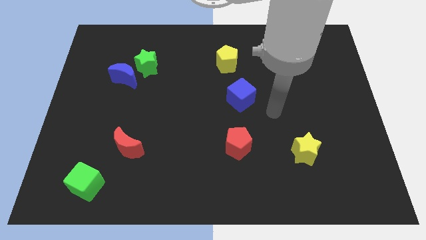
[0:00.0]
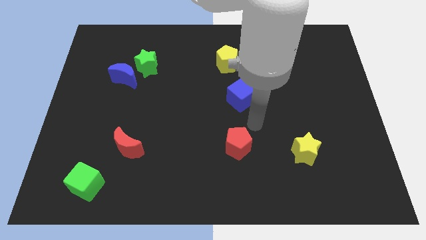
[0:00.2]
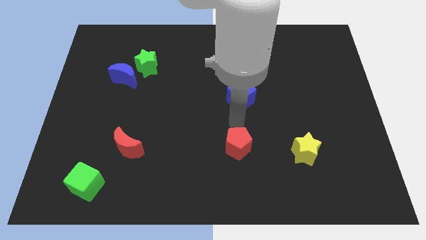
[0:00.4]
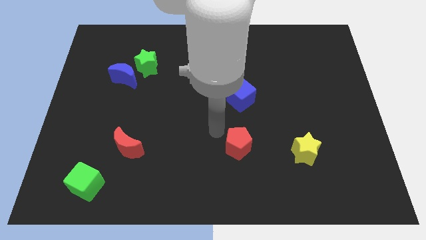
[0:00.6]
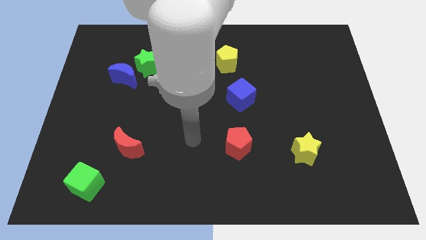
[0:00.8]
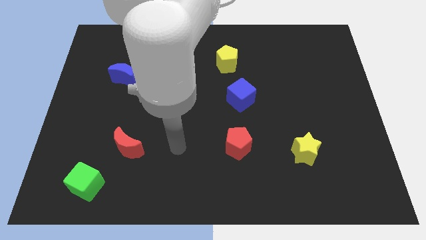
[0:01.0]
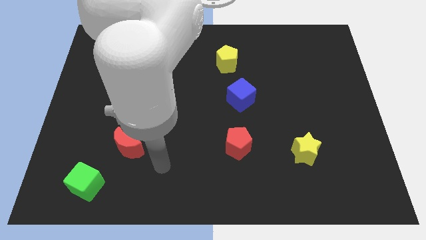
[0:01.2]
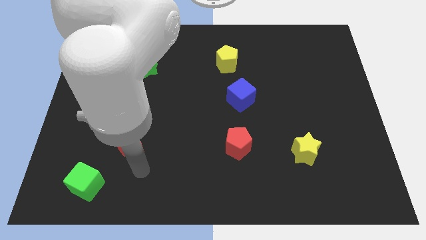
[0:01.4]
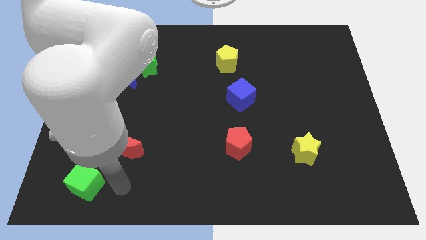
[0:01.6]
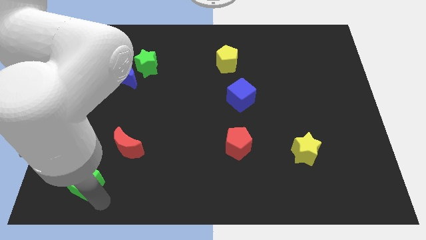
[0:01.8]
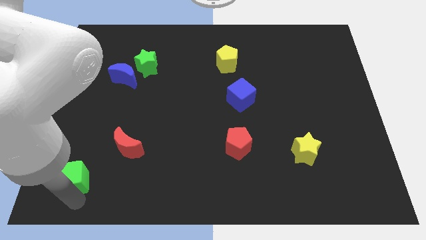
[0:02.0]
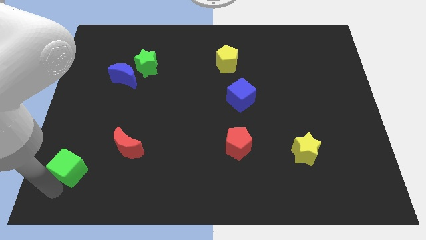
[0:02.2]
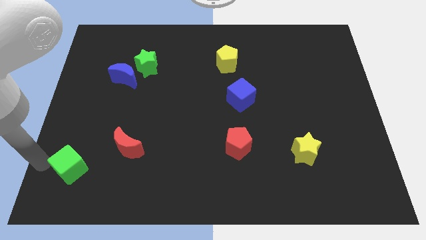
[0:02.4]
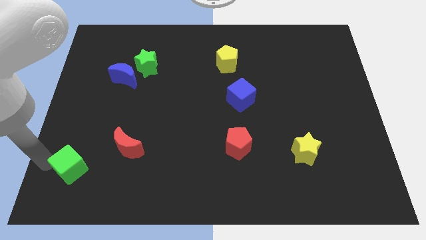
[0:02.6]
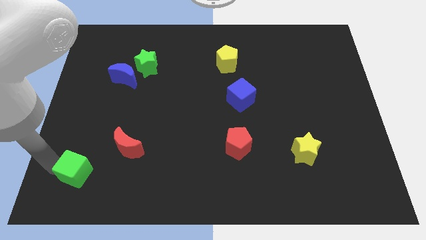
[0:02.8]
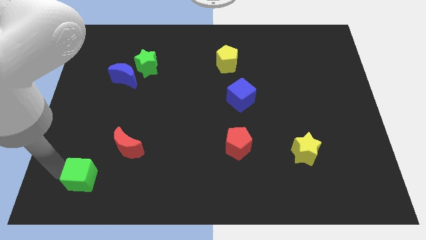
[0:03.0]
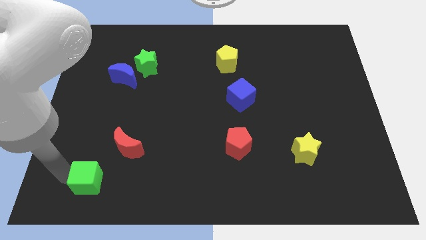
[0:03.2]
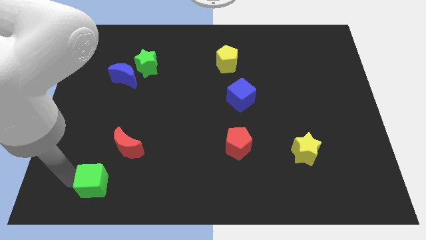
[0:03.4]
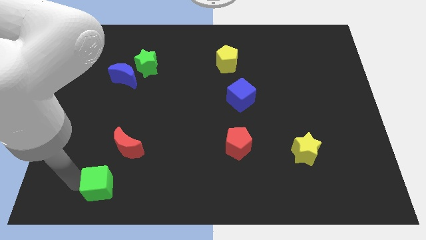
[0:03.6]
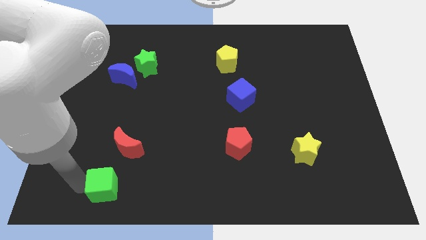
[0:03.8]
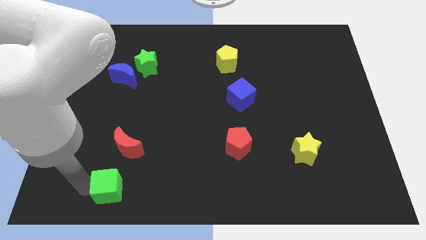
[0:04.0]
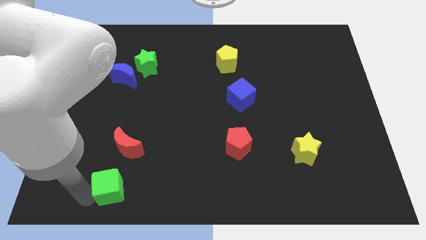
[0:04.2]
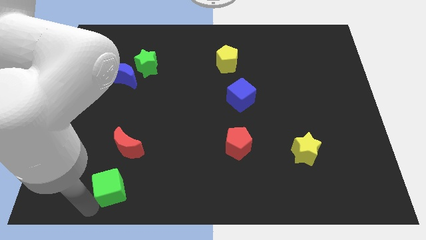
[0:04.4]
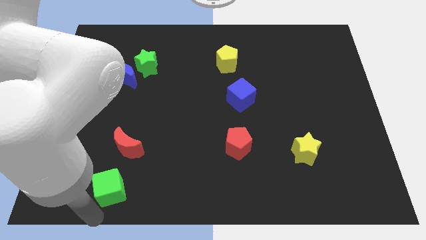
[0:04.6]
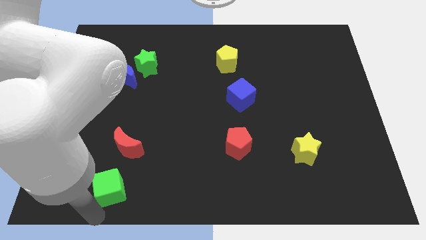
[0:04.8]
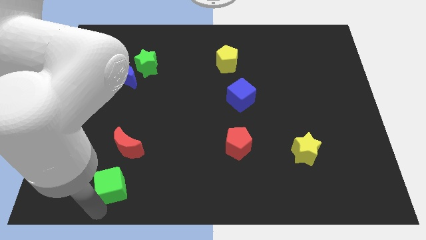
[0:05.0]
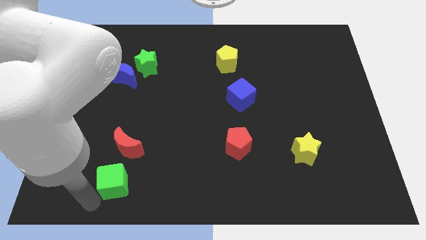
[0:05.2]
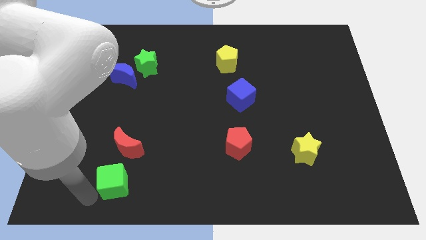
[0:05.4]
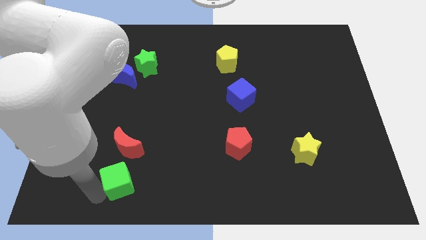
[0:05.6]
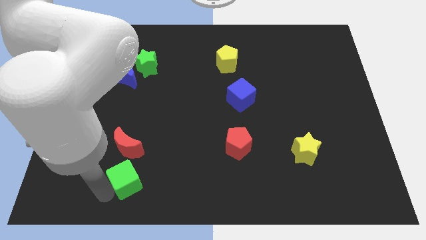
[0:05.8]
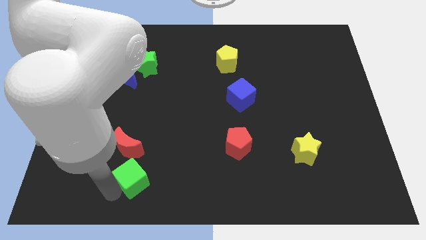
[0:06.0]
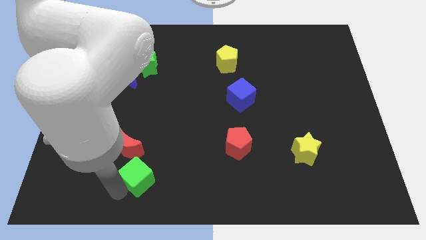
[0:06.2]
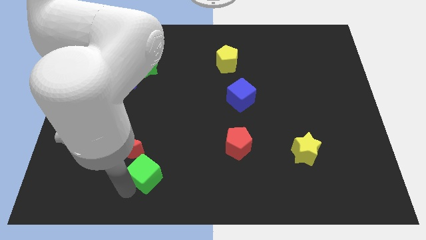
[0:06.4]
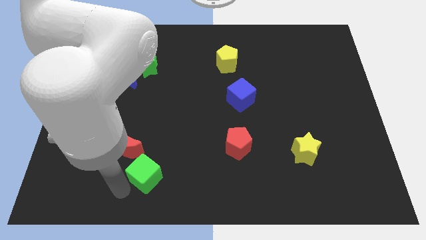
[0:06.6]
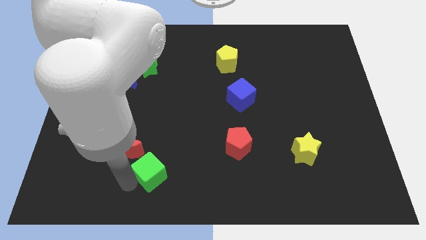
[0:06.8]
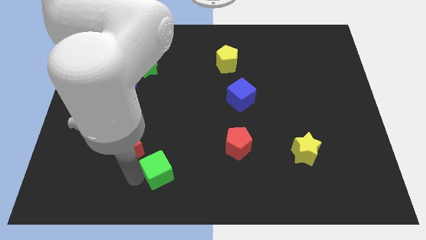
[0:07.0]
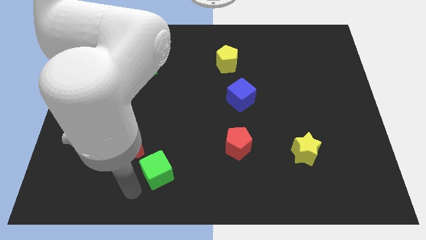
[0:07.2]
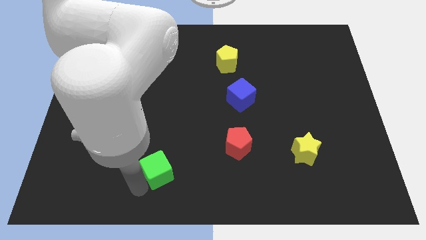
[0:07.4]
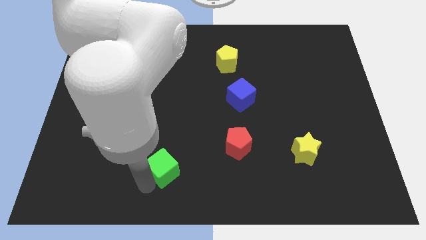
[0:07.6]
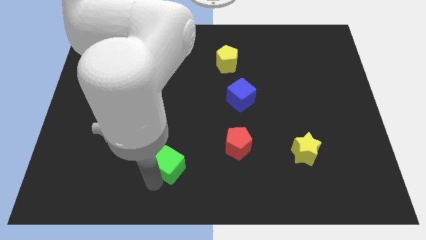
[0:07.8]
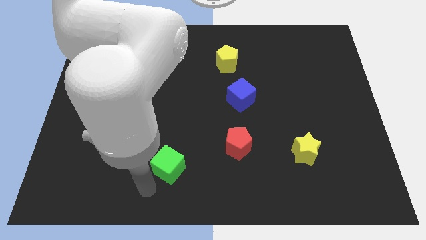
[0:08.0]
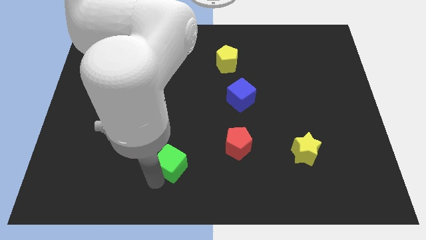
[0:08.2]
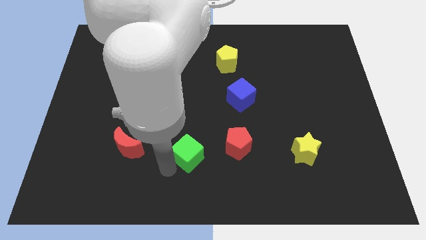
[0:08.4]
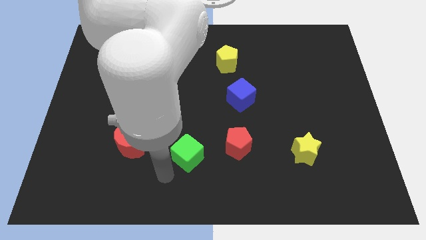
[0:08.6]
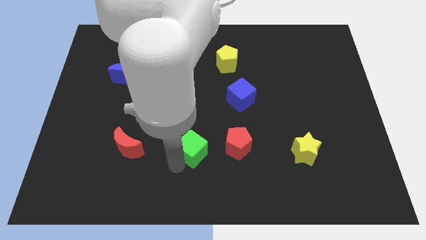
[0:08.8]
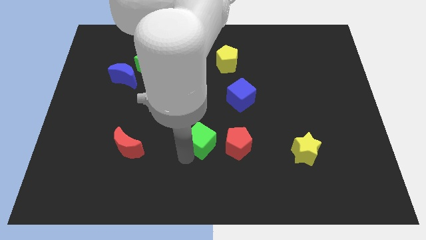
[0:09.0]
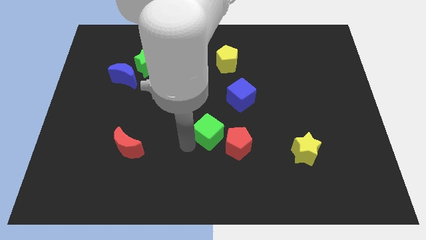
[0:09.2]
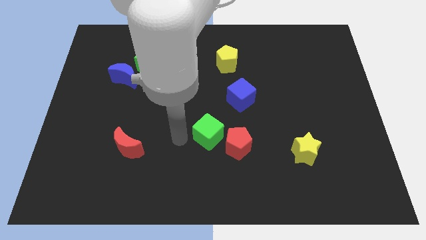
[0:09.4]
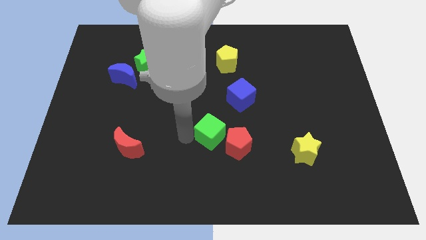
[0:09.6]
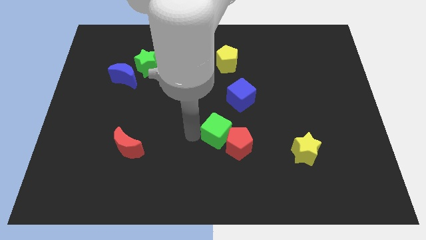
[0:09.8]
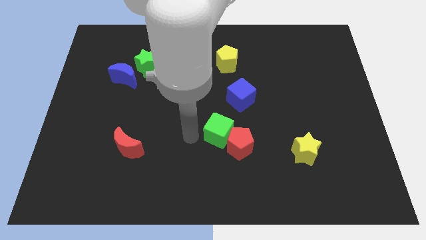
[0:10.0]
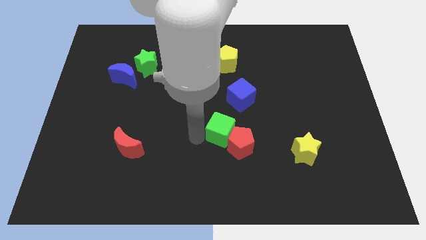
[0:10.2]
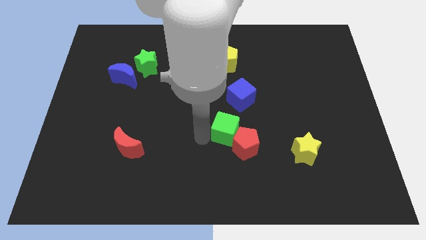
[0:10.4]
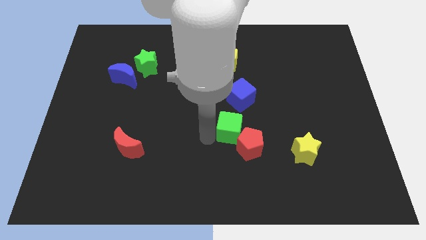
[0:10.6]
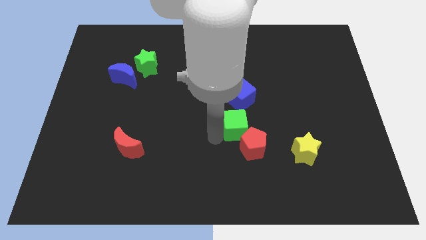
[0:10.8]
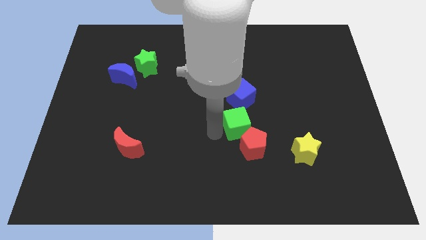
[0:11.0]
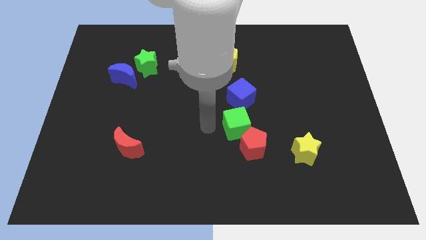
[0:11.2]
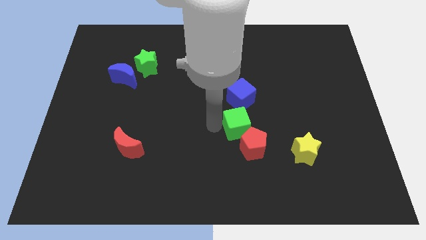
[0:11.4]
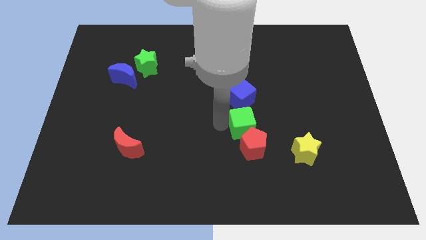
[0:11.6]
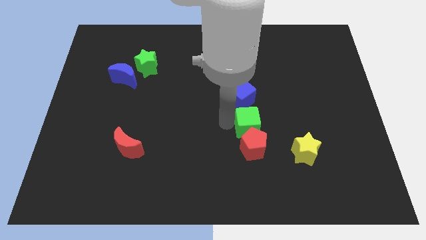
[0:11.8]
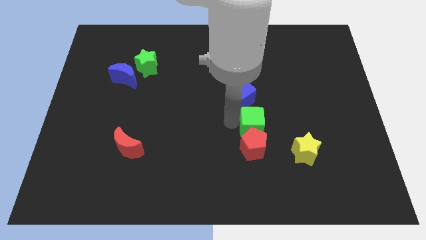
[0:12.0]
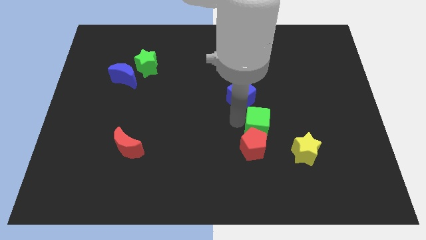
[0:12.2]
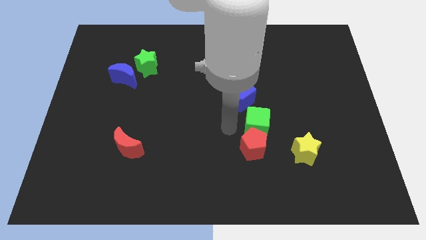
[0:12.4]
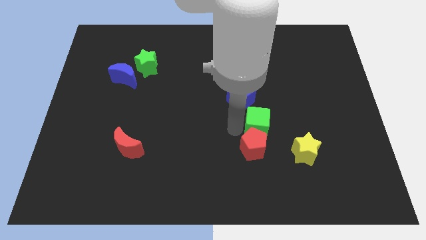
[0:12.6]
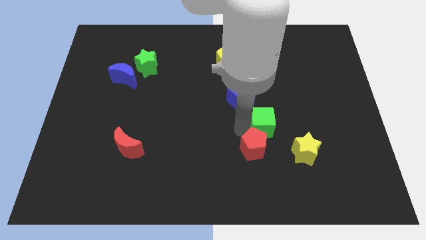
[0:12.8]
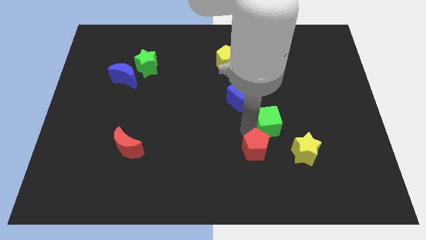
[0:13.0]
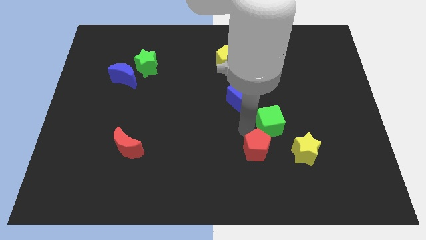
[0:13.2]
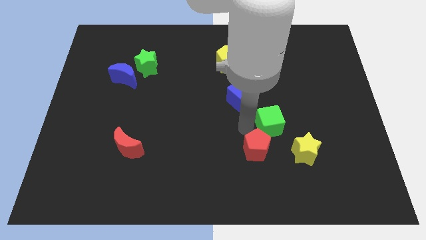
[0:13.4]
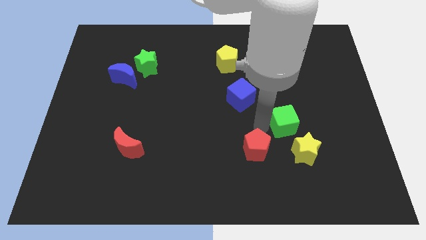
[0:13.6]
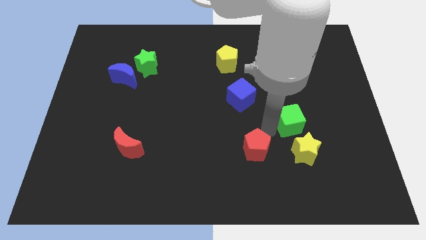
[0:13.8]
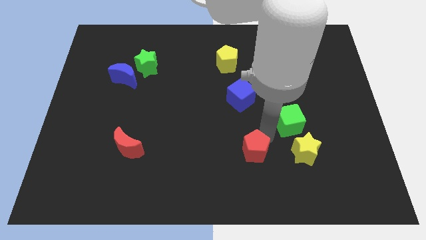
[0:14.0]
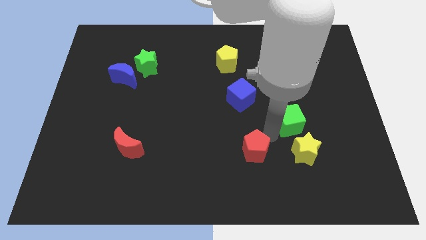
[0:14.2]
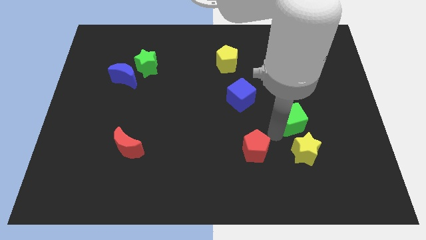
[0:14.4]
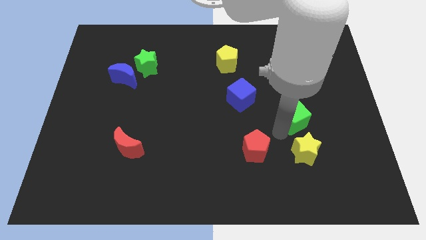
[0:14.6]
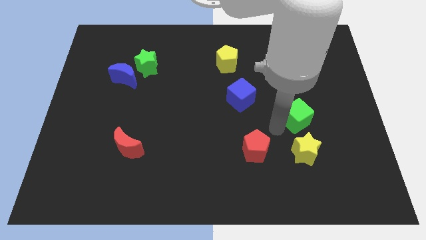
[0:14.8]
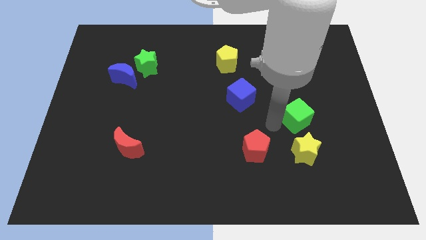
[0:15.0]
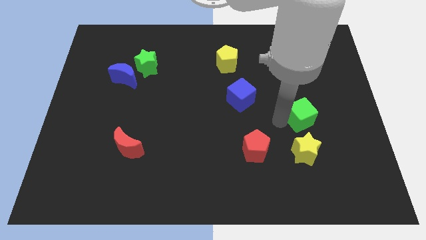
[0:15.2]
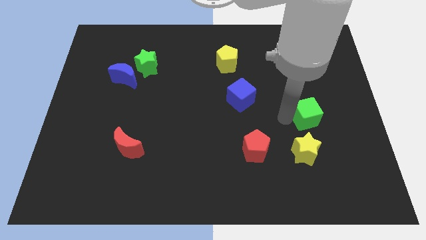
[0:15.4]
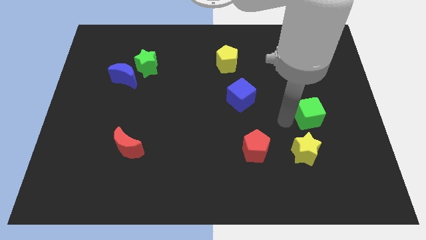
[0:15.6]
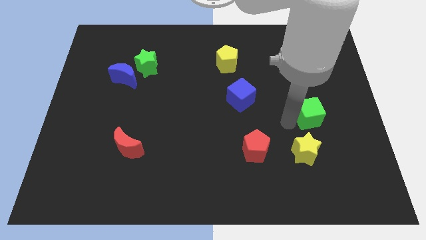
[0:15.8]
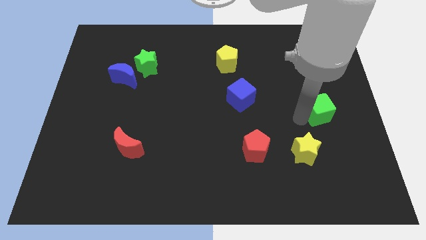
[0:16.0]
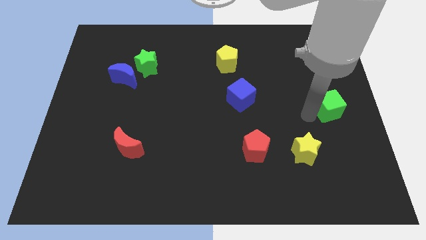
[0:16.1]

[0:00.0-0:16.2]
push the green cube to the right side of the board
